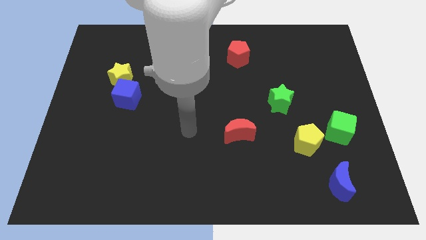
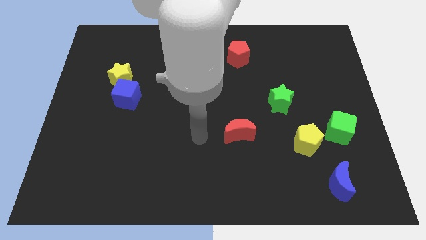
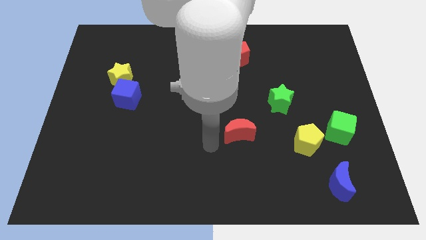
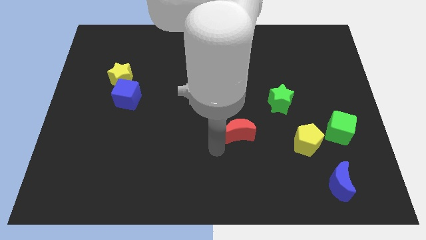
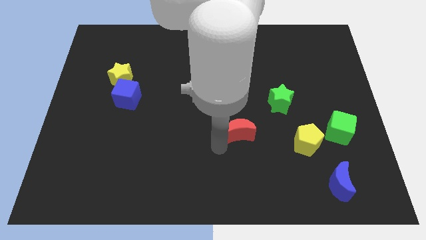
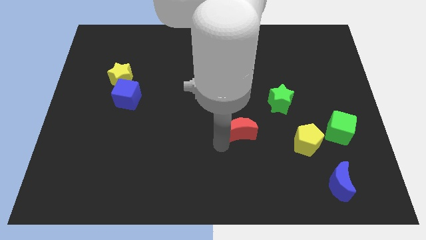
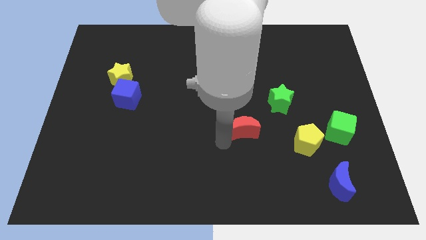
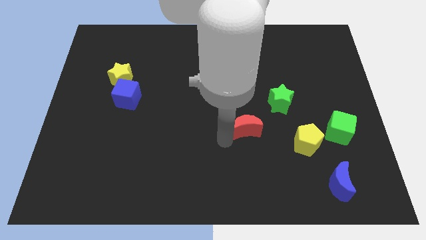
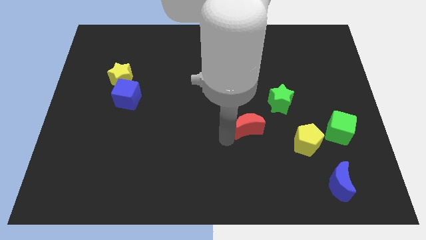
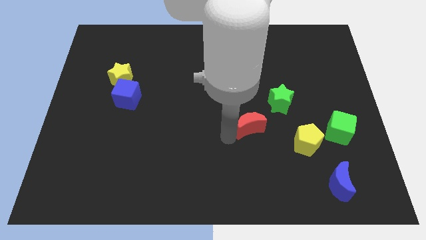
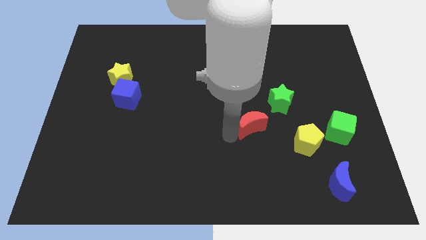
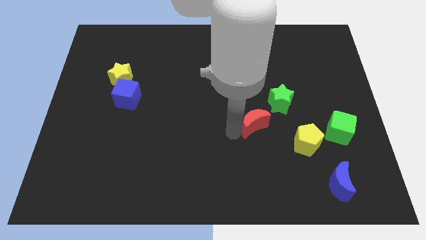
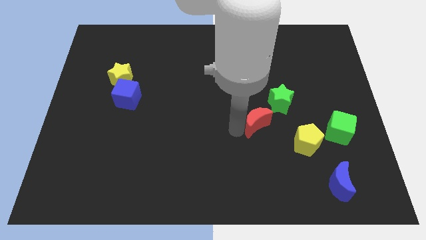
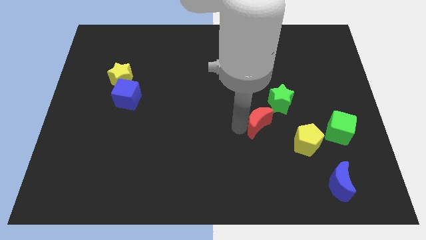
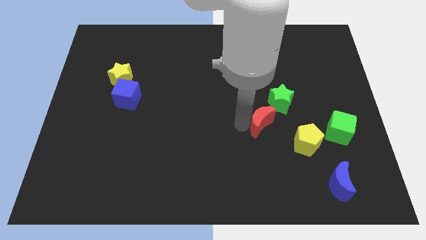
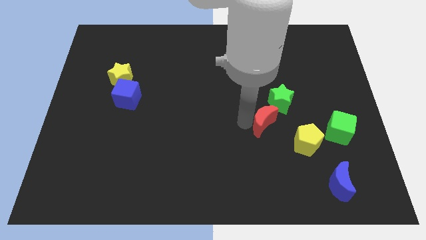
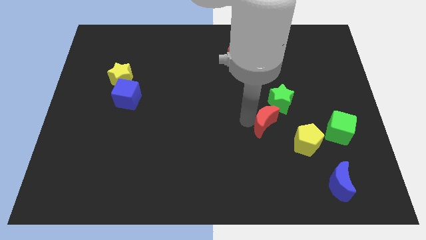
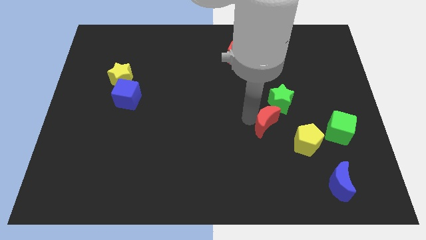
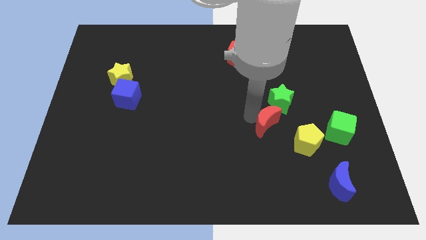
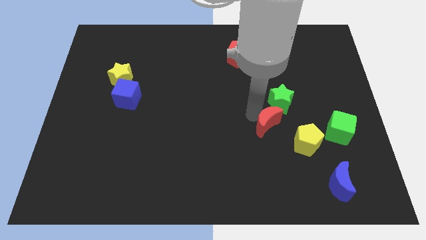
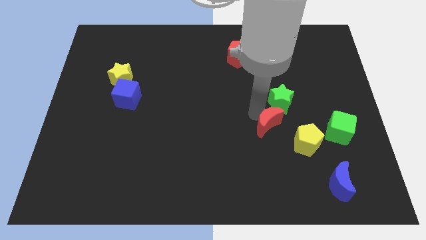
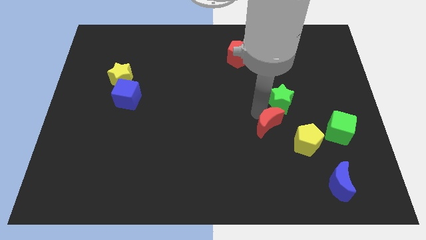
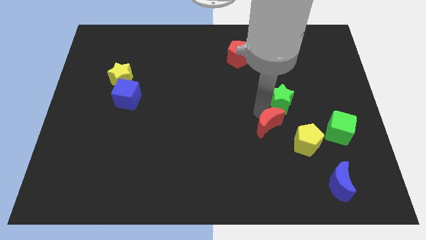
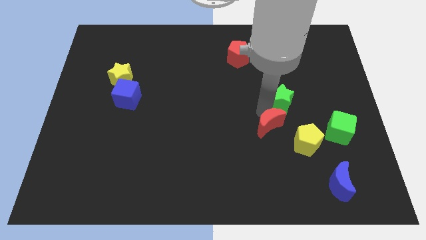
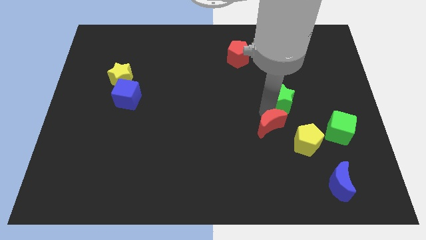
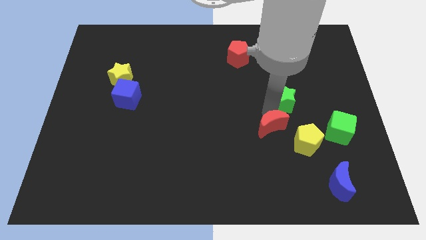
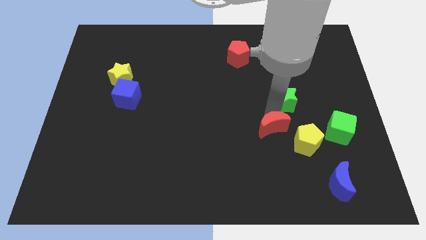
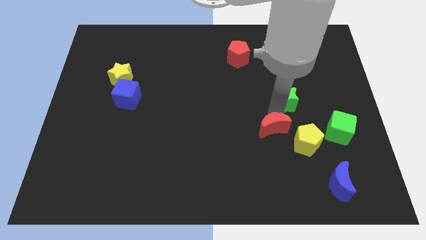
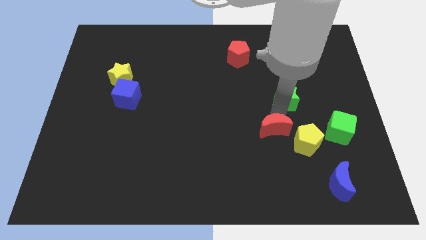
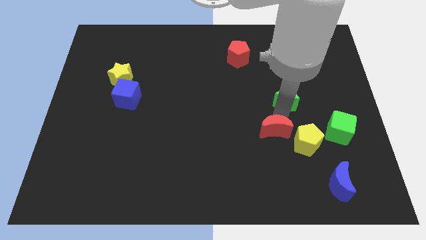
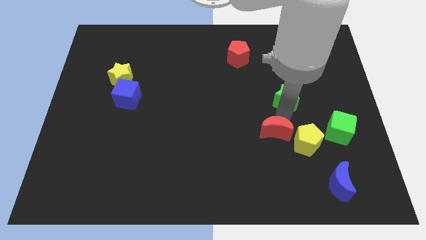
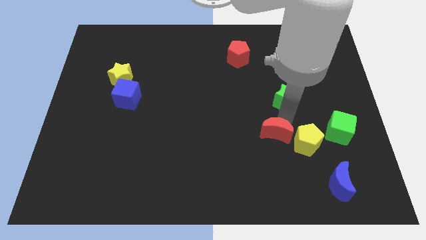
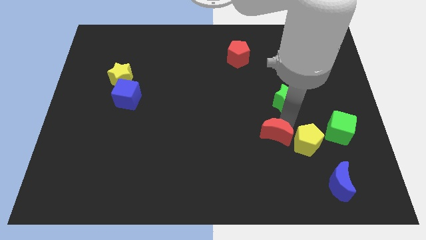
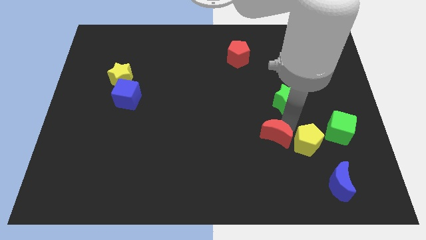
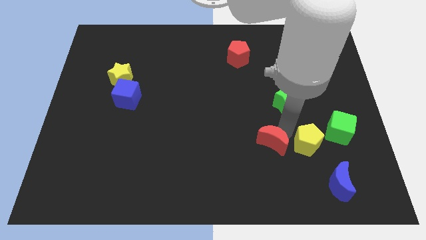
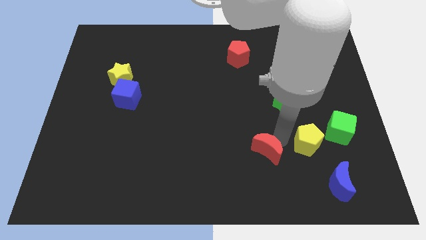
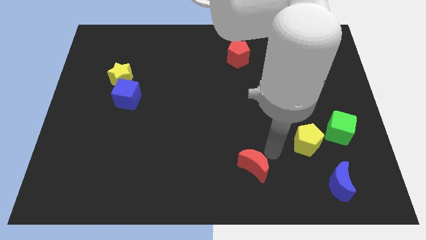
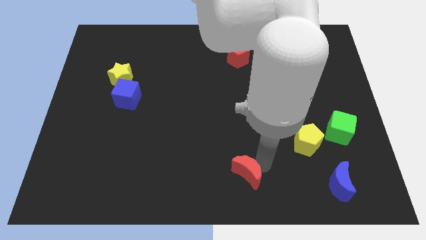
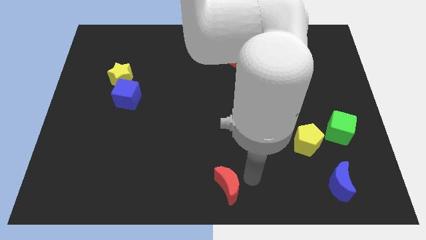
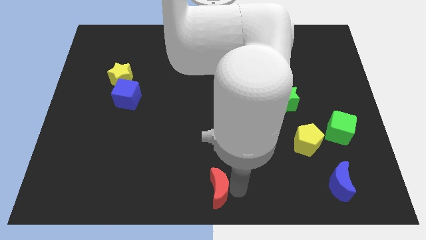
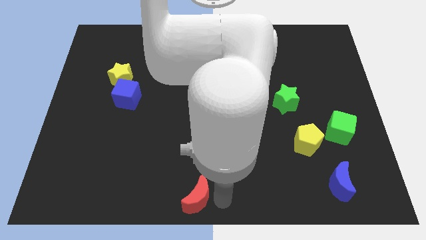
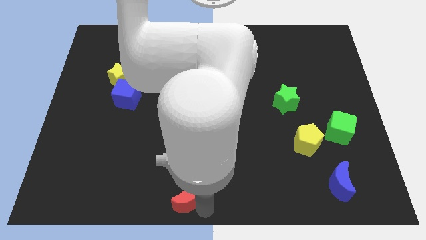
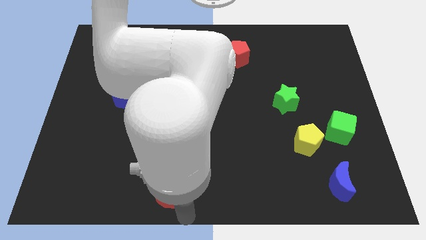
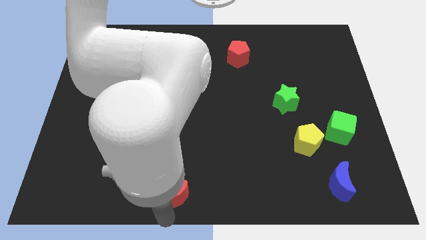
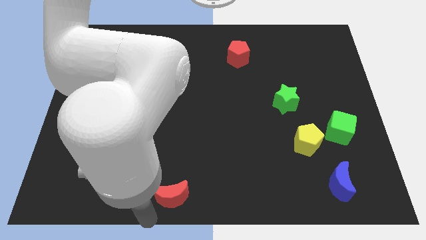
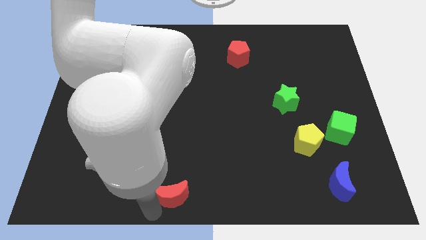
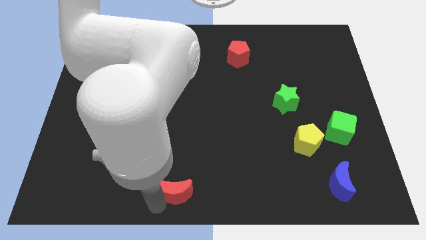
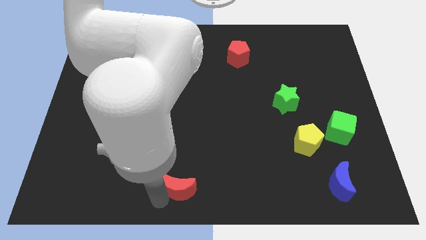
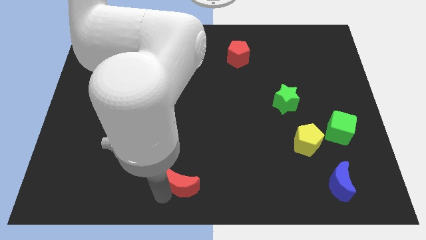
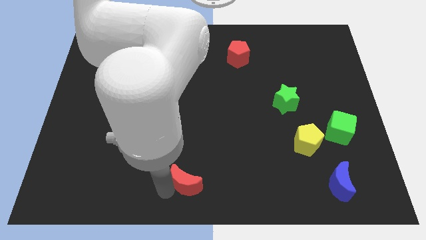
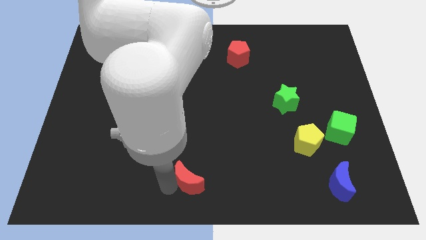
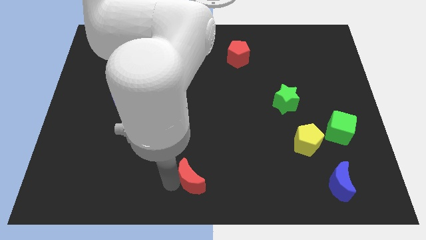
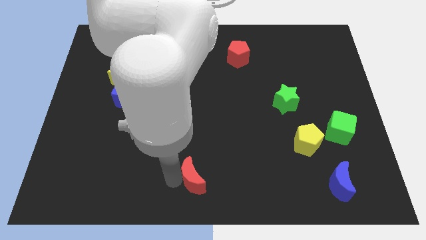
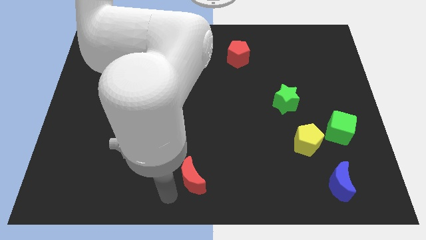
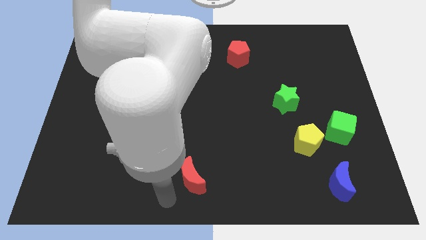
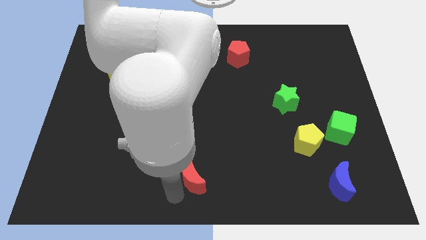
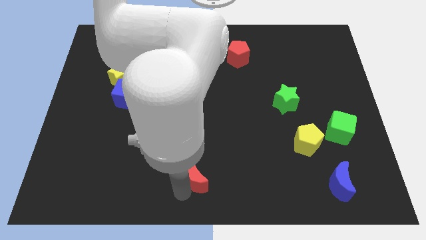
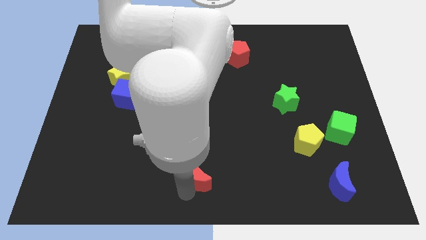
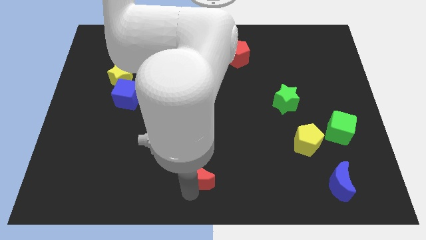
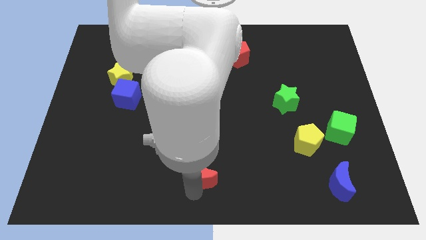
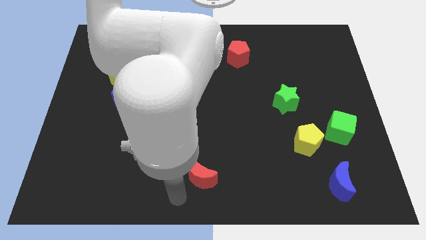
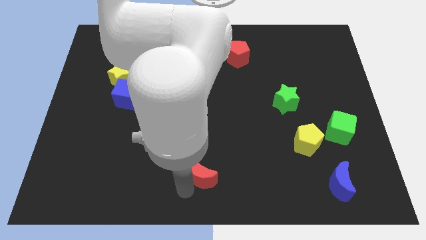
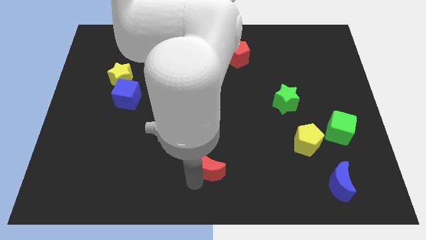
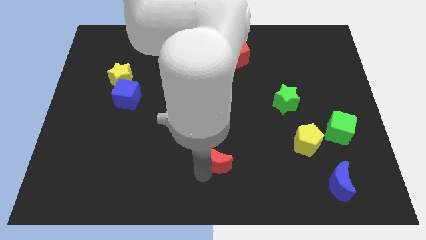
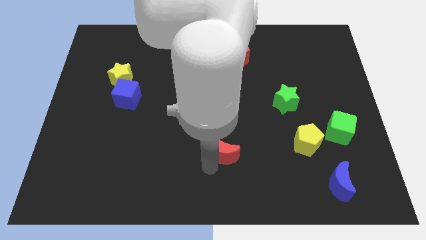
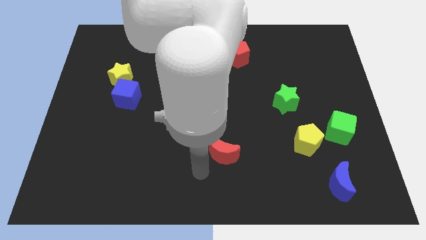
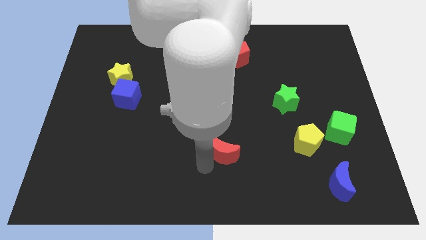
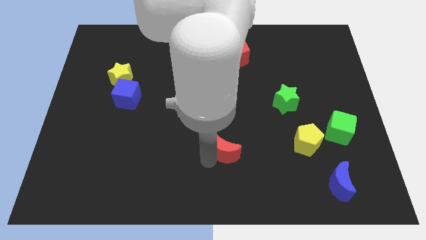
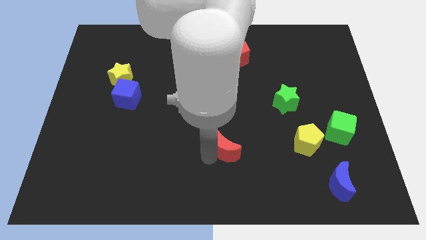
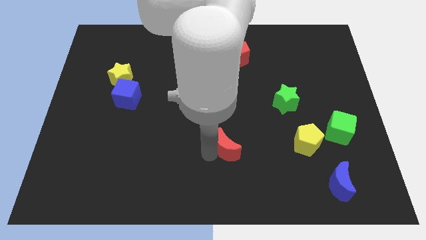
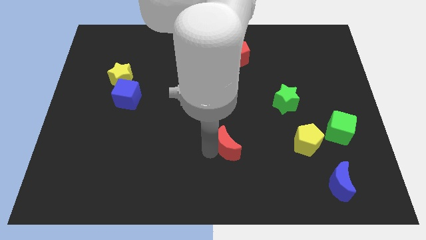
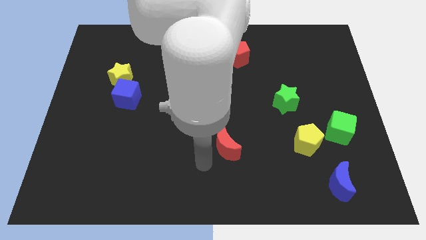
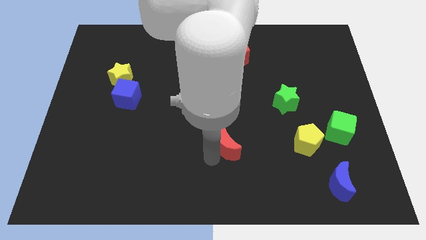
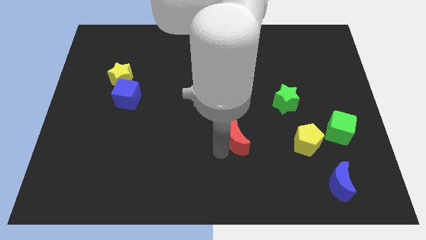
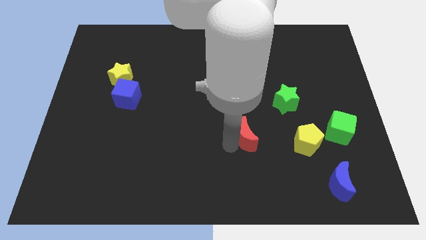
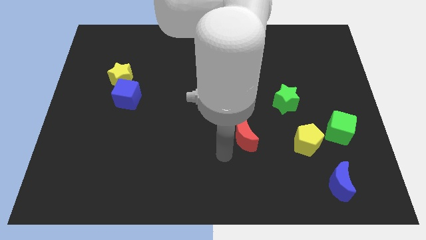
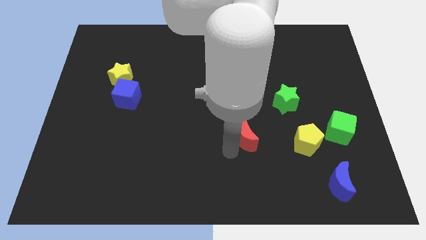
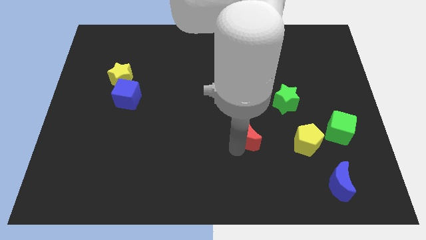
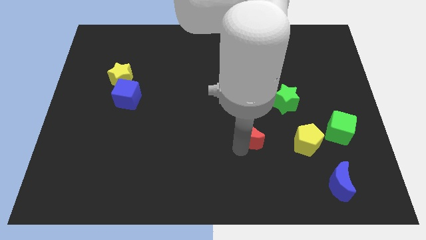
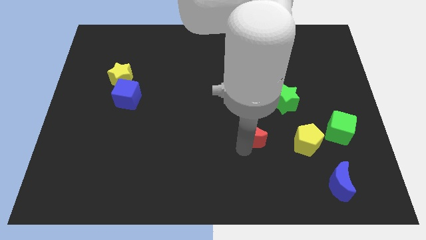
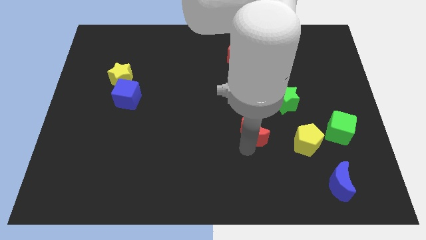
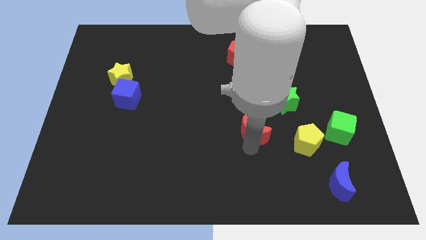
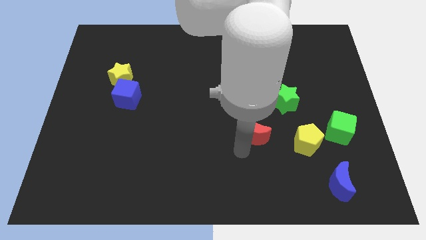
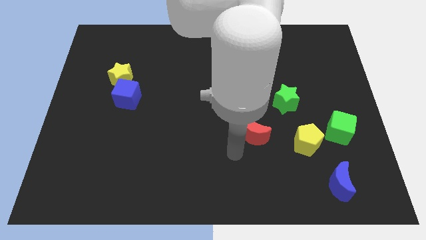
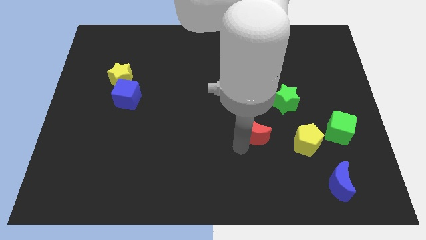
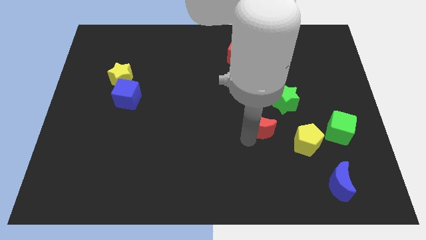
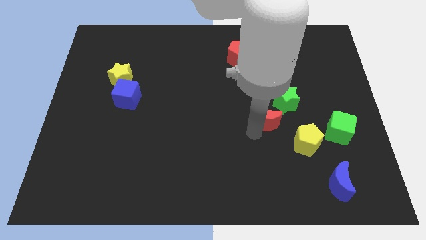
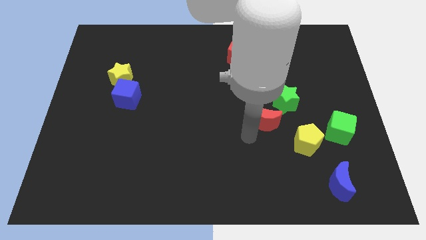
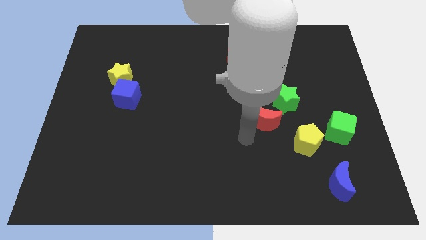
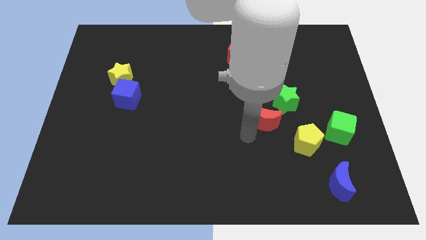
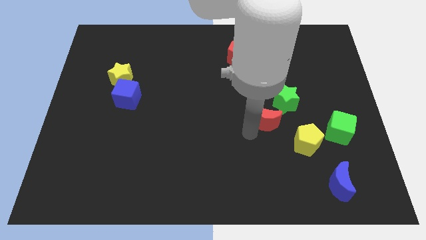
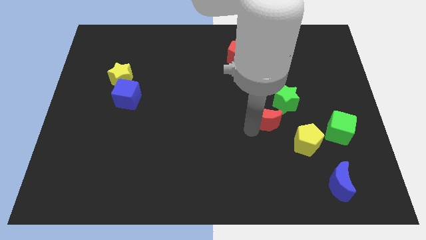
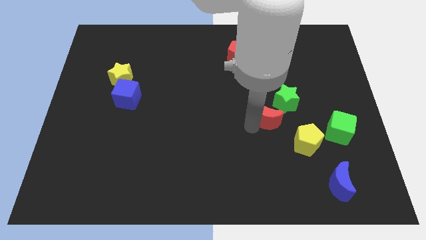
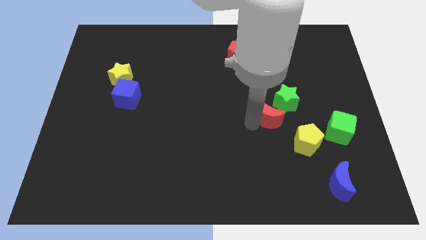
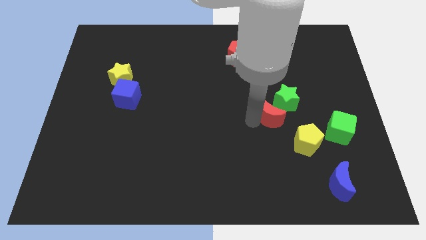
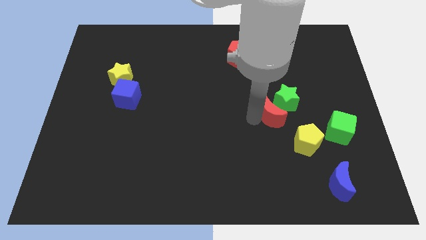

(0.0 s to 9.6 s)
push the red moon next to the green star
